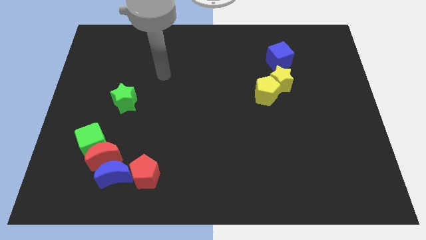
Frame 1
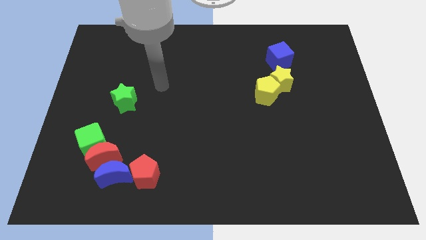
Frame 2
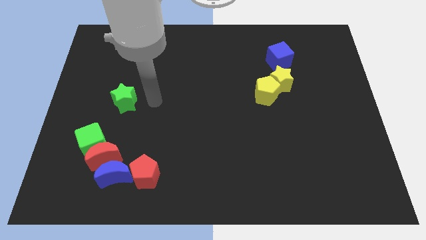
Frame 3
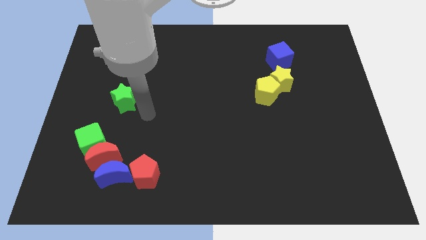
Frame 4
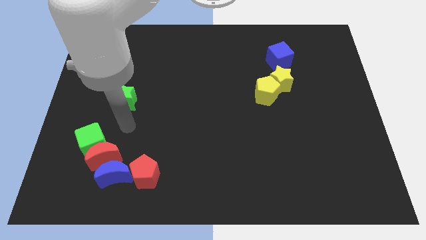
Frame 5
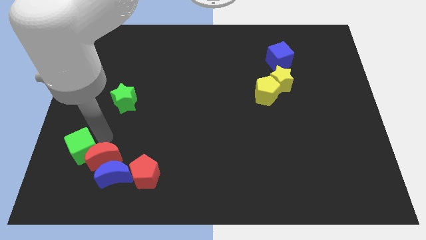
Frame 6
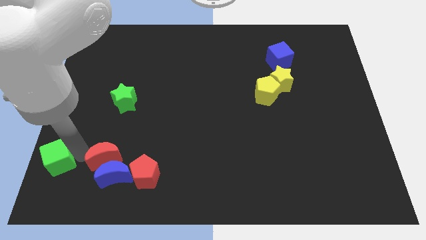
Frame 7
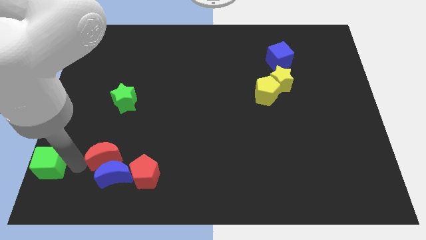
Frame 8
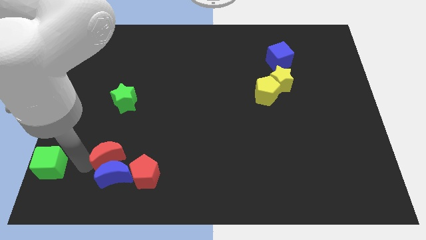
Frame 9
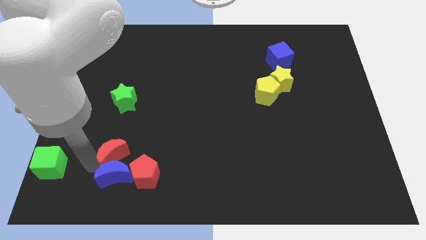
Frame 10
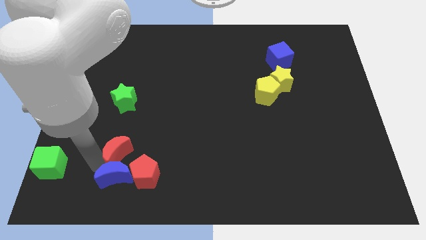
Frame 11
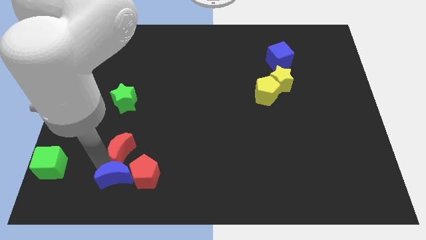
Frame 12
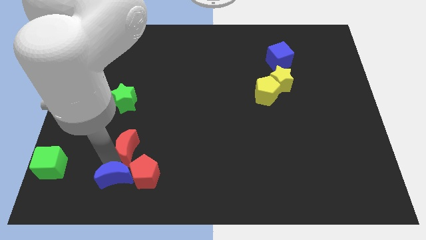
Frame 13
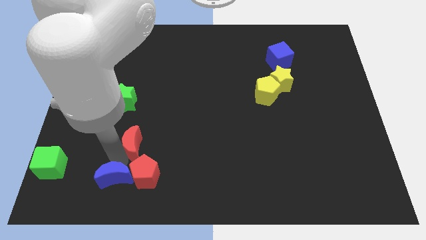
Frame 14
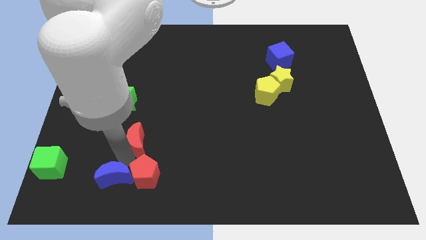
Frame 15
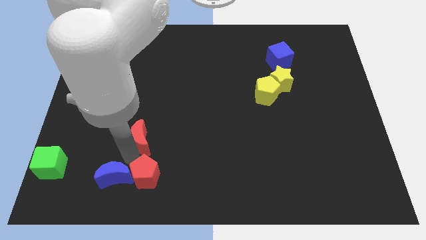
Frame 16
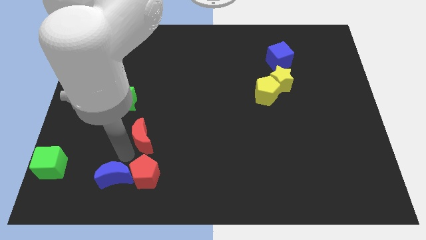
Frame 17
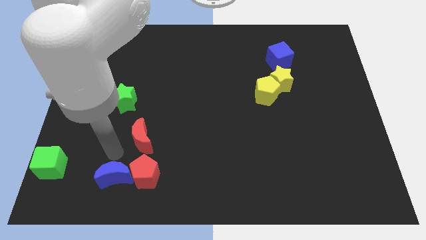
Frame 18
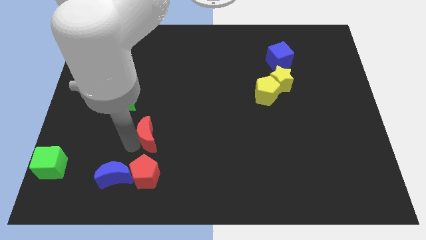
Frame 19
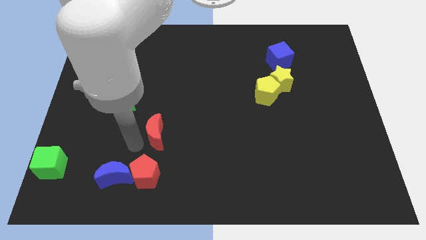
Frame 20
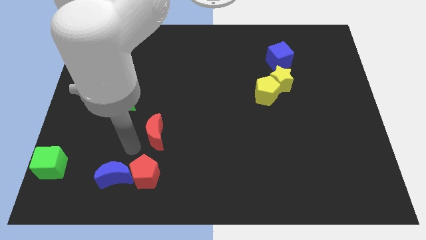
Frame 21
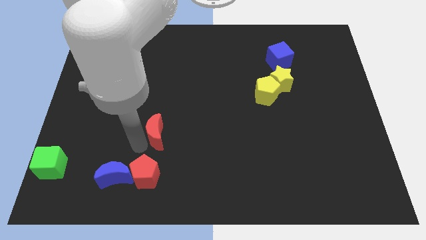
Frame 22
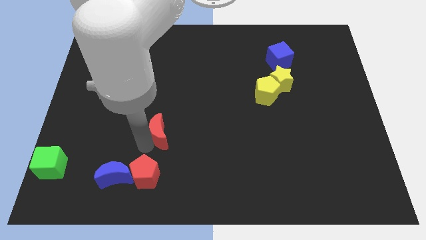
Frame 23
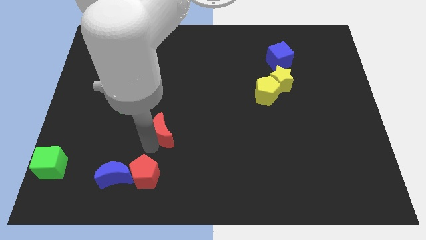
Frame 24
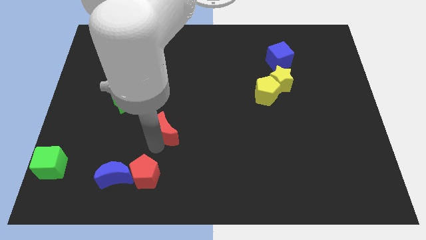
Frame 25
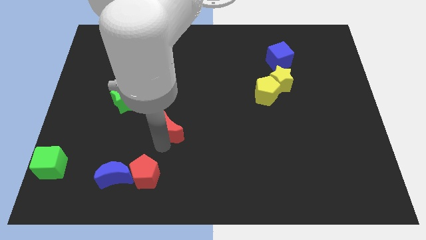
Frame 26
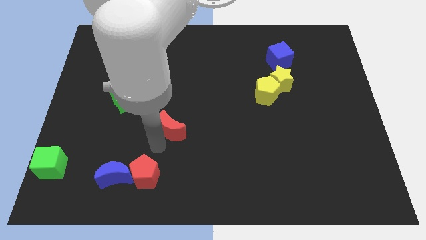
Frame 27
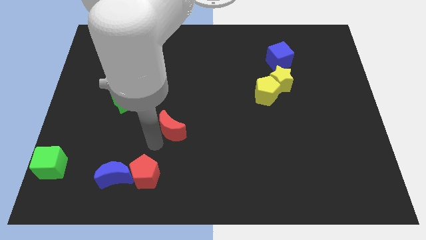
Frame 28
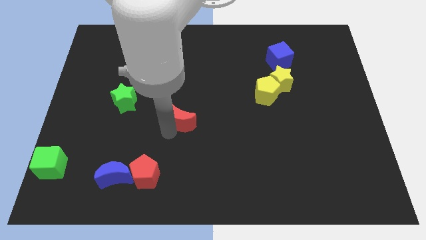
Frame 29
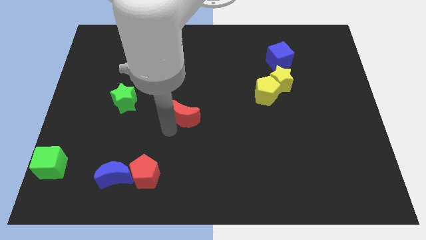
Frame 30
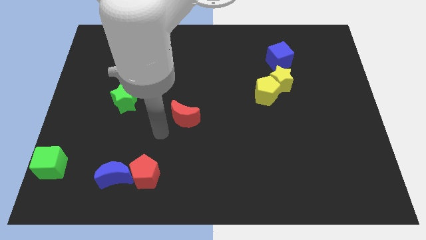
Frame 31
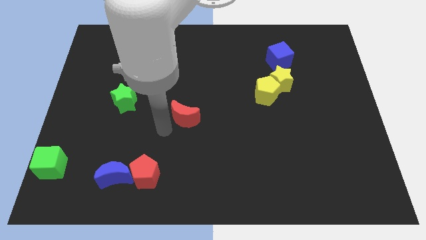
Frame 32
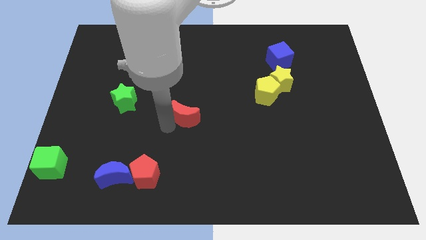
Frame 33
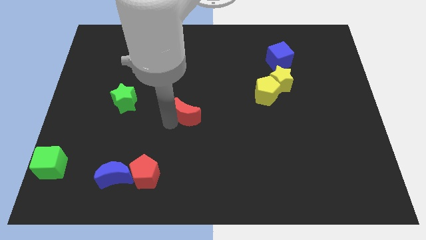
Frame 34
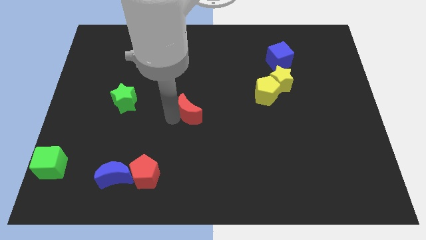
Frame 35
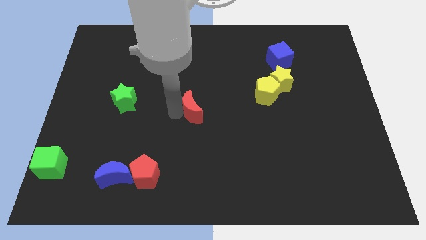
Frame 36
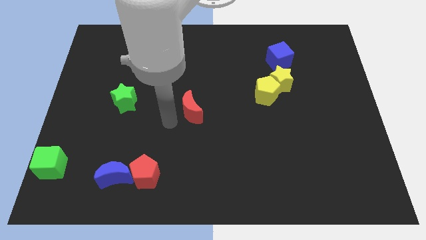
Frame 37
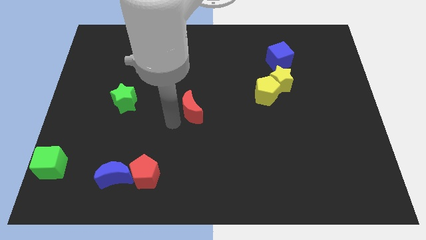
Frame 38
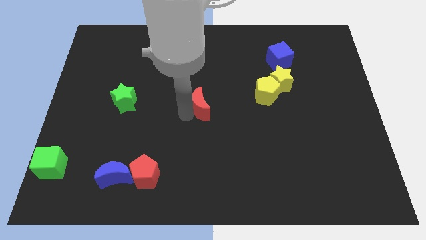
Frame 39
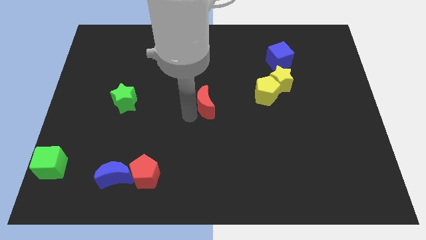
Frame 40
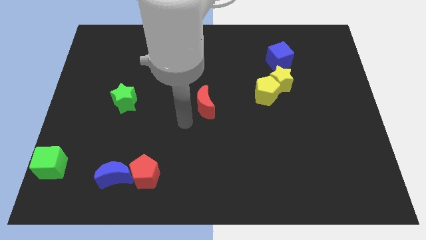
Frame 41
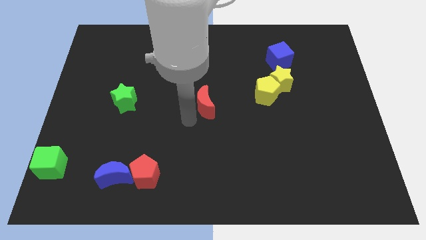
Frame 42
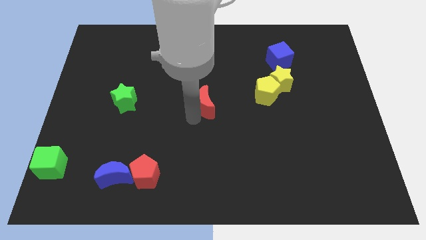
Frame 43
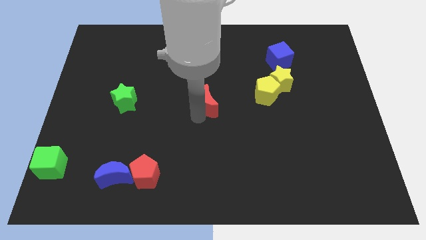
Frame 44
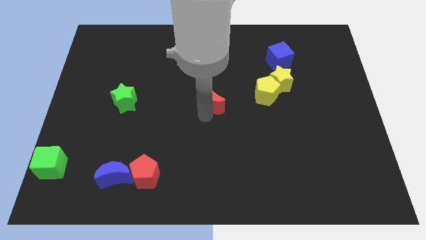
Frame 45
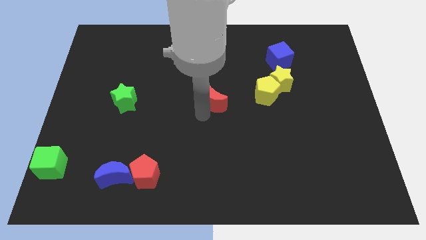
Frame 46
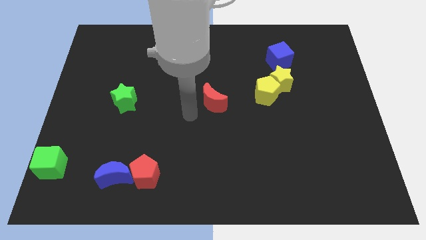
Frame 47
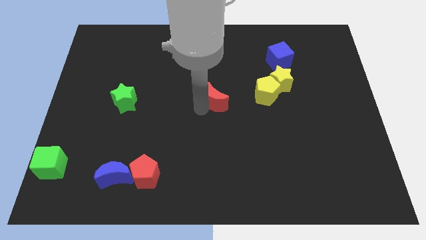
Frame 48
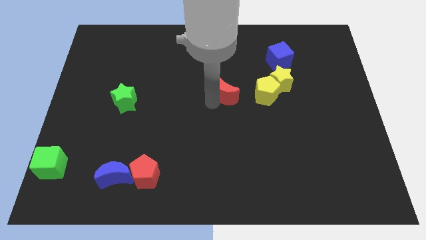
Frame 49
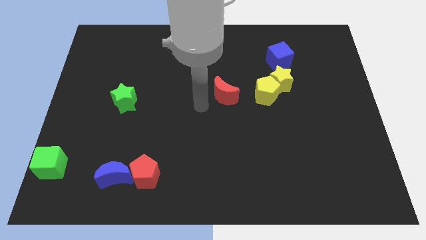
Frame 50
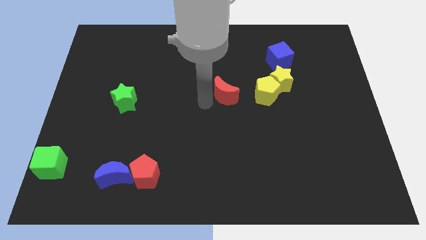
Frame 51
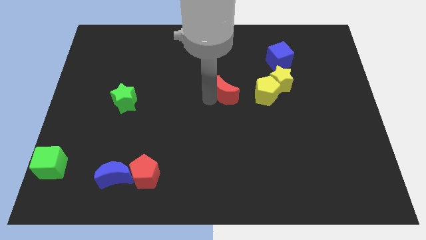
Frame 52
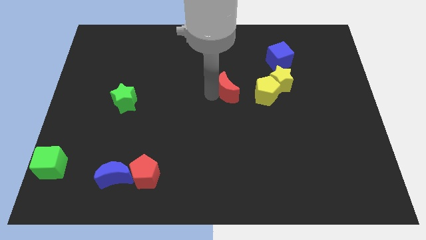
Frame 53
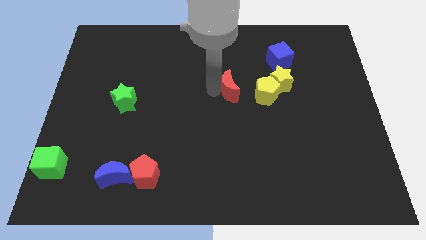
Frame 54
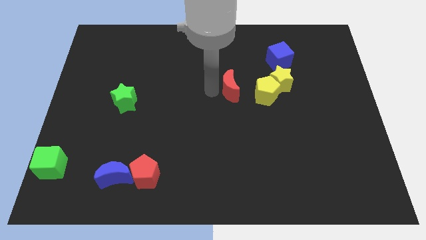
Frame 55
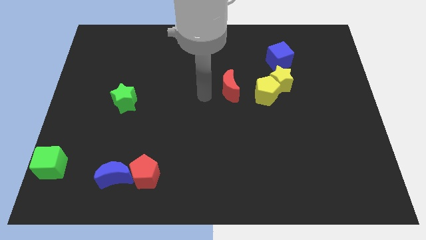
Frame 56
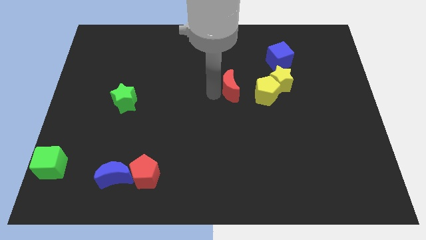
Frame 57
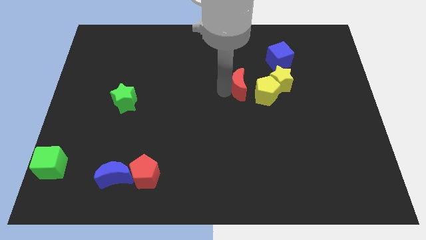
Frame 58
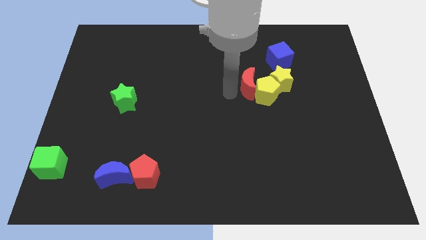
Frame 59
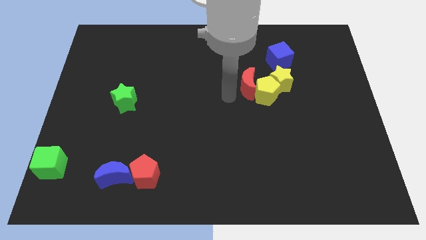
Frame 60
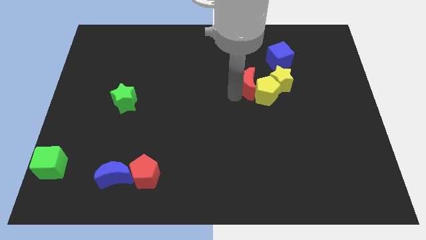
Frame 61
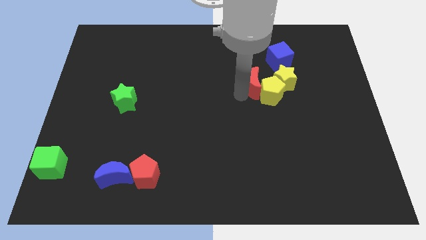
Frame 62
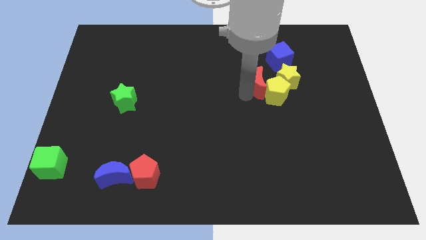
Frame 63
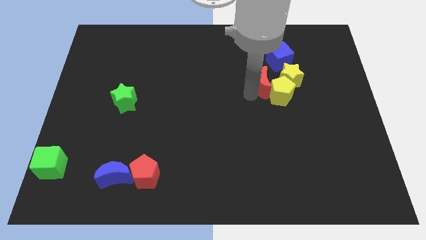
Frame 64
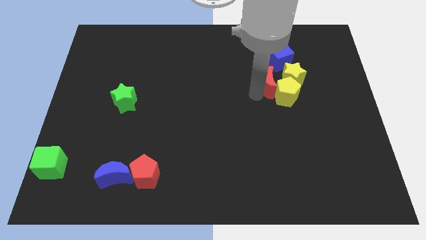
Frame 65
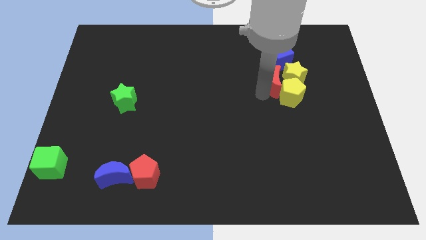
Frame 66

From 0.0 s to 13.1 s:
slide the red moon close to the yellow star
